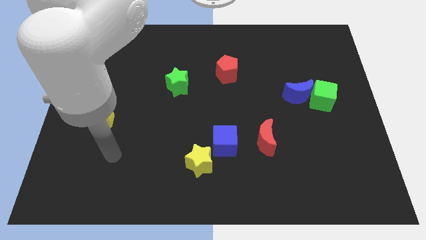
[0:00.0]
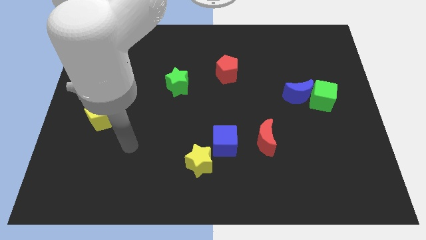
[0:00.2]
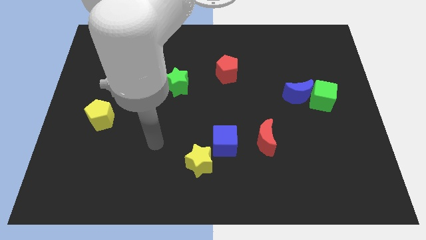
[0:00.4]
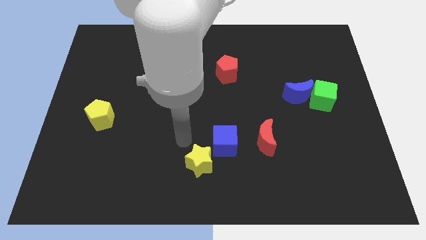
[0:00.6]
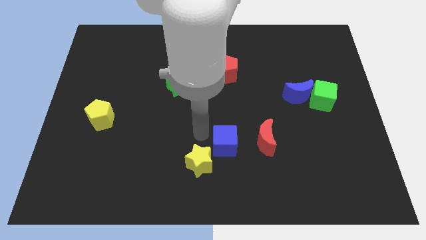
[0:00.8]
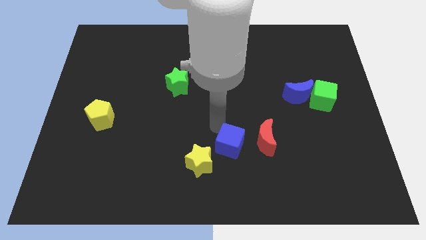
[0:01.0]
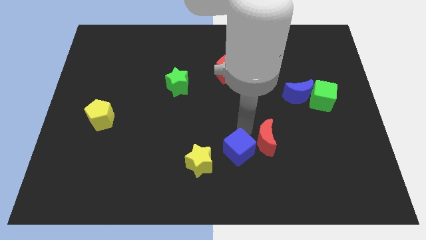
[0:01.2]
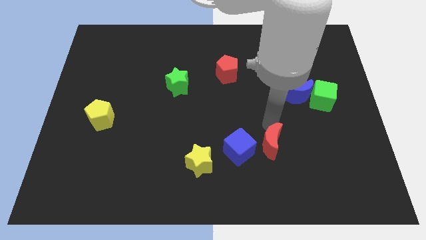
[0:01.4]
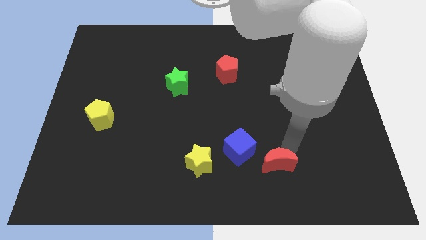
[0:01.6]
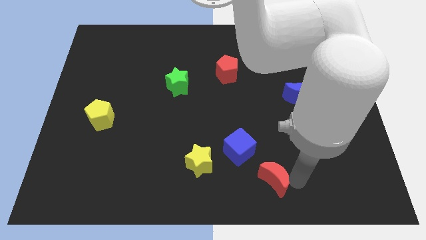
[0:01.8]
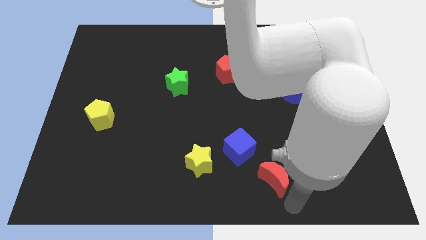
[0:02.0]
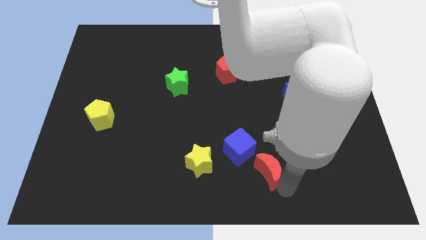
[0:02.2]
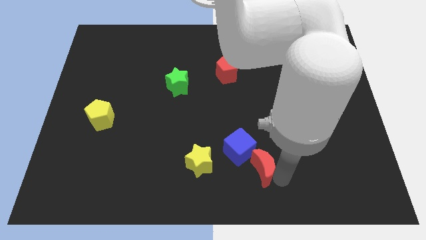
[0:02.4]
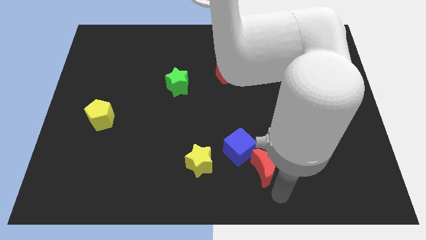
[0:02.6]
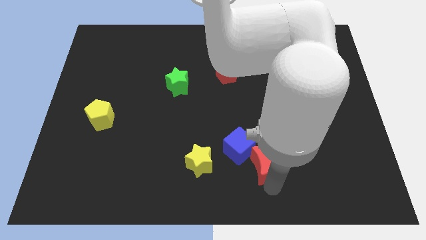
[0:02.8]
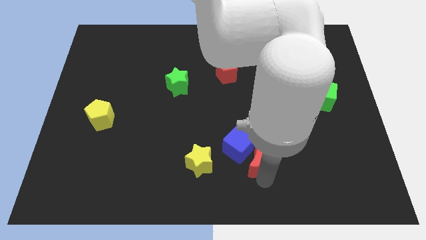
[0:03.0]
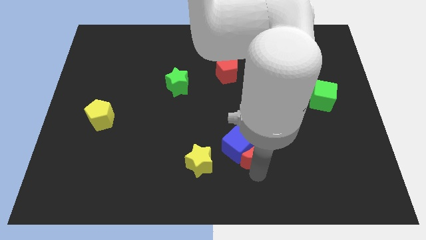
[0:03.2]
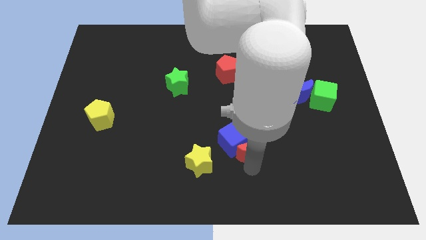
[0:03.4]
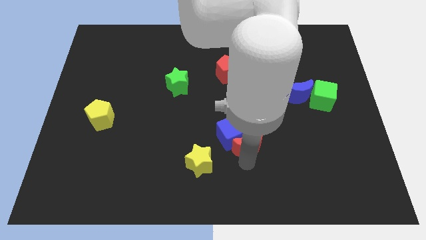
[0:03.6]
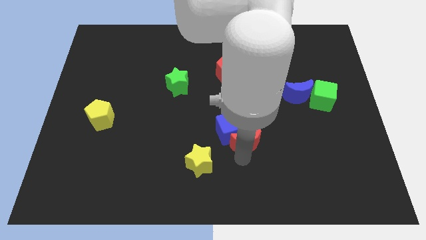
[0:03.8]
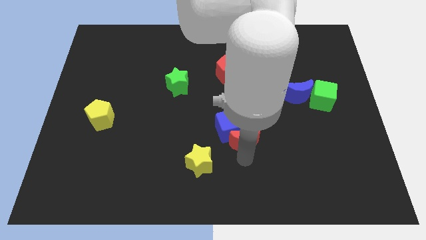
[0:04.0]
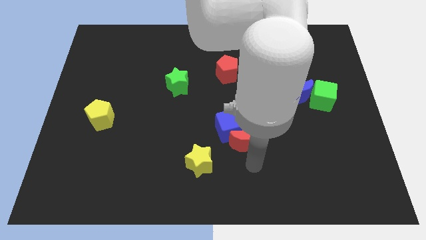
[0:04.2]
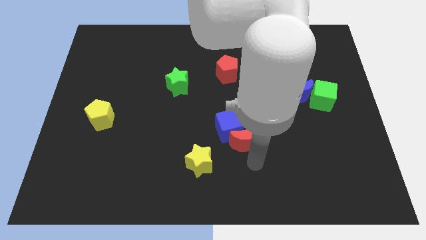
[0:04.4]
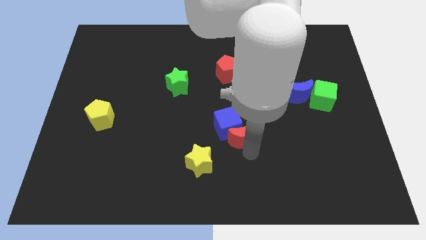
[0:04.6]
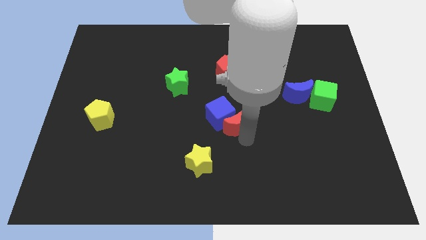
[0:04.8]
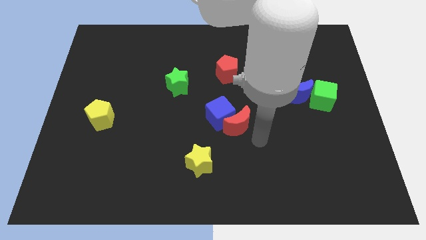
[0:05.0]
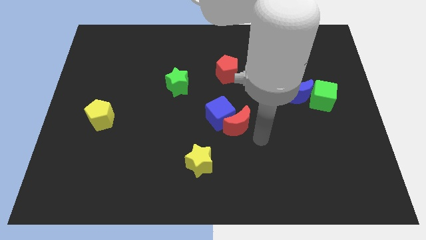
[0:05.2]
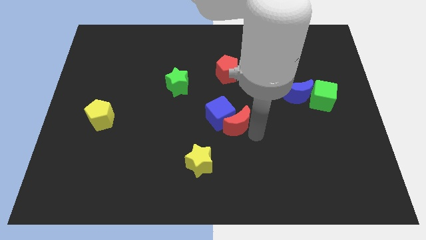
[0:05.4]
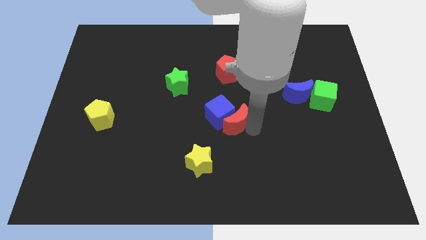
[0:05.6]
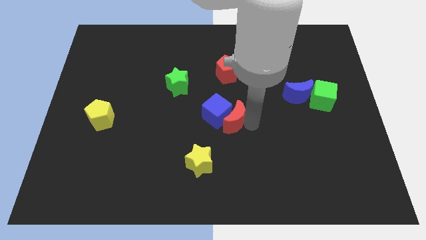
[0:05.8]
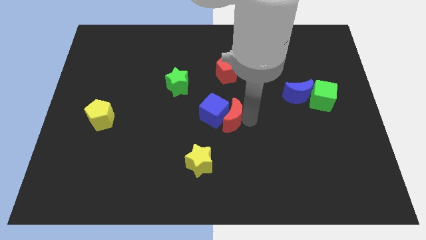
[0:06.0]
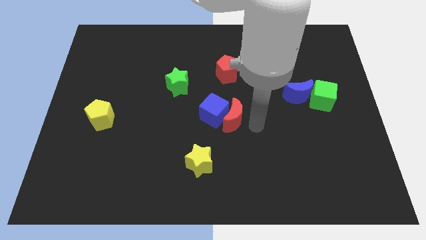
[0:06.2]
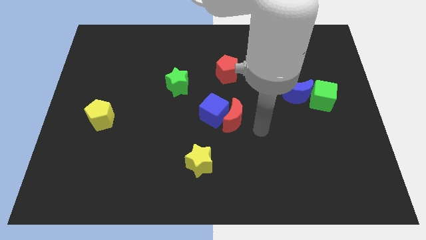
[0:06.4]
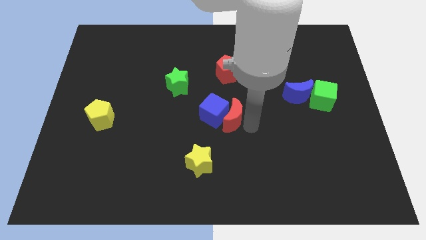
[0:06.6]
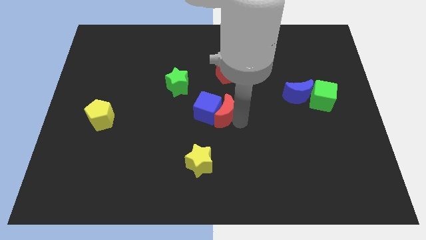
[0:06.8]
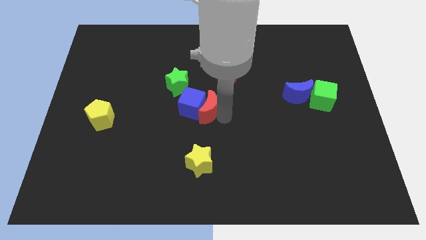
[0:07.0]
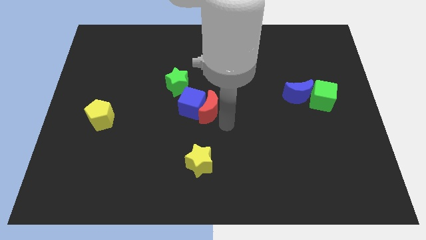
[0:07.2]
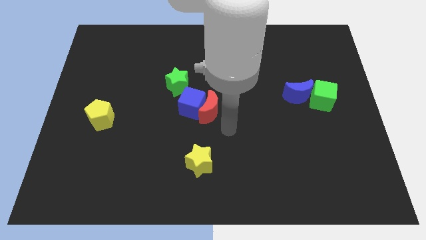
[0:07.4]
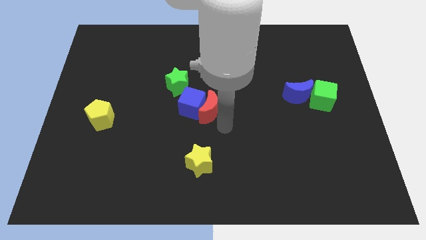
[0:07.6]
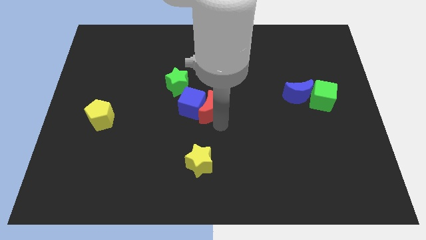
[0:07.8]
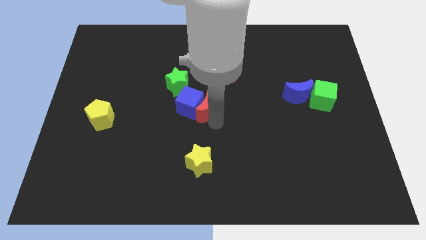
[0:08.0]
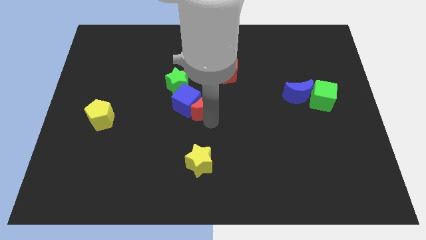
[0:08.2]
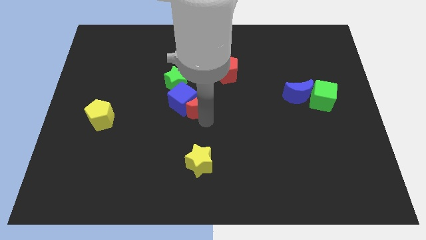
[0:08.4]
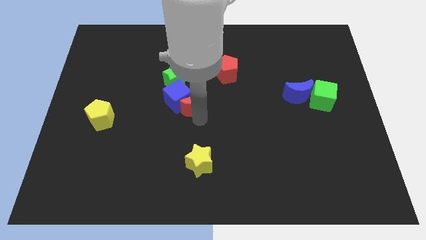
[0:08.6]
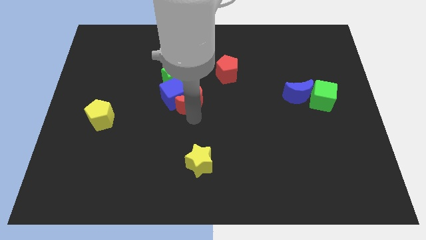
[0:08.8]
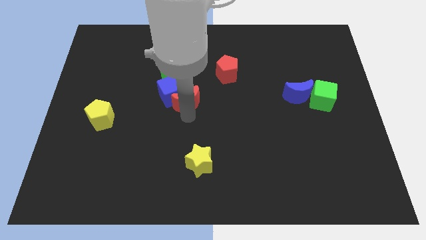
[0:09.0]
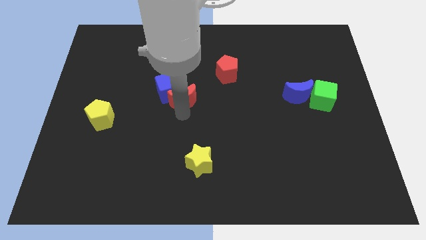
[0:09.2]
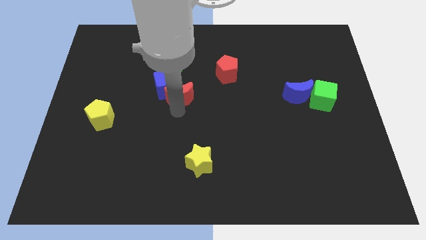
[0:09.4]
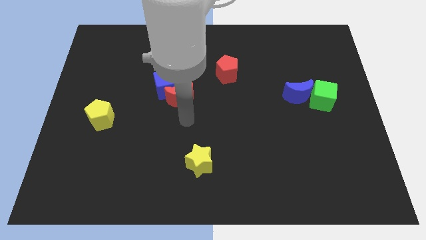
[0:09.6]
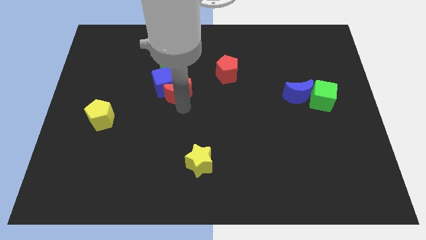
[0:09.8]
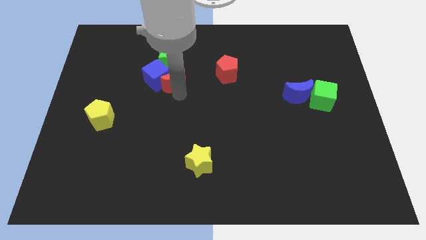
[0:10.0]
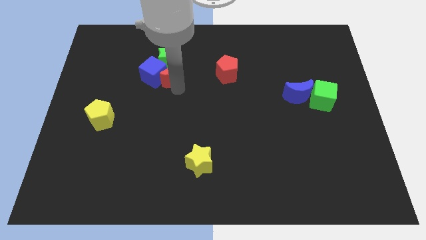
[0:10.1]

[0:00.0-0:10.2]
push the red moon towards the green star

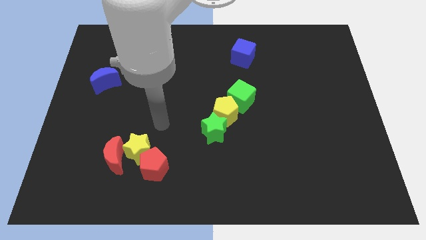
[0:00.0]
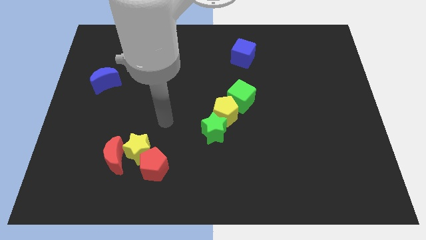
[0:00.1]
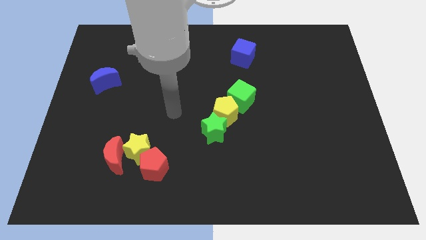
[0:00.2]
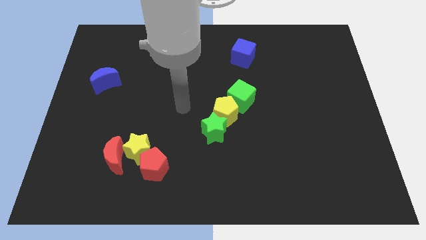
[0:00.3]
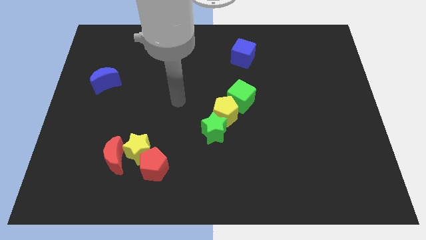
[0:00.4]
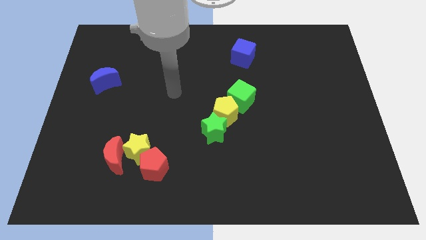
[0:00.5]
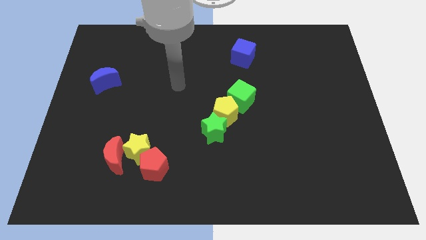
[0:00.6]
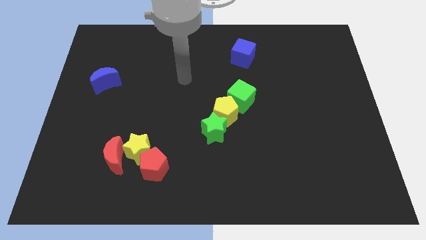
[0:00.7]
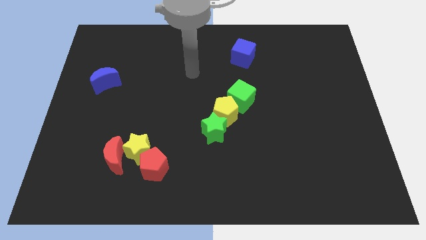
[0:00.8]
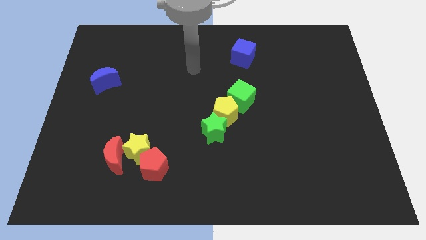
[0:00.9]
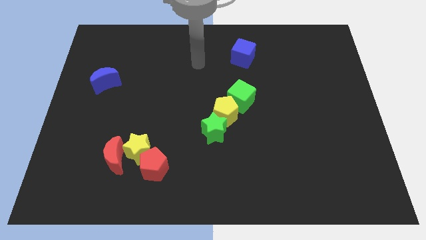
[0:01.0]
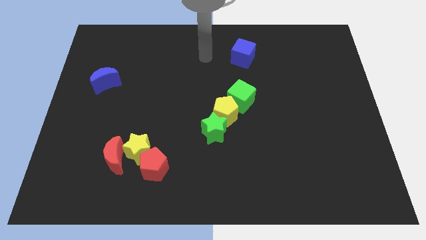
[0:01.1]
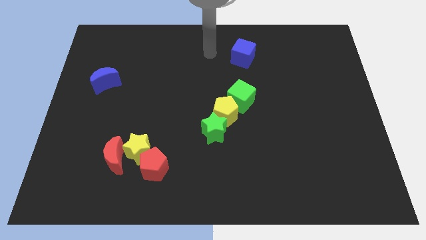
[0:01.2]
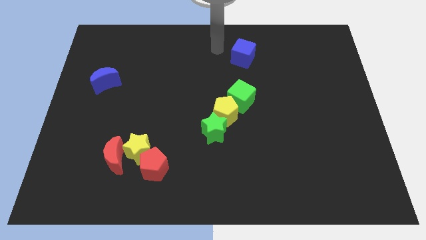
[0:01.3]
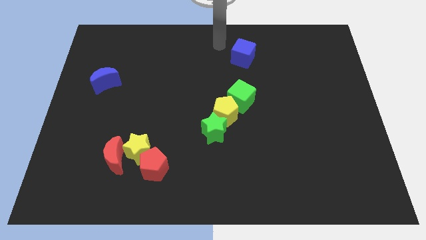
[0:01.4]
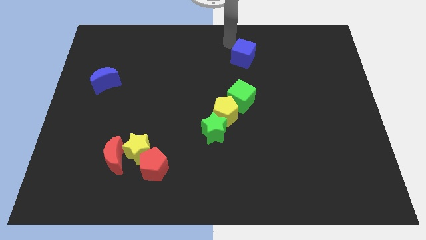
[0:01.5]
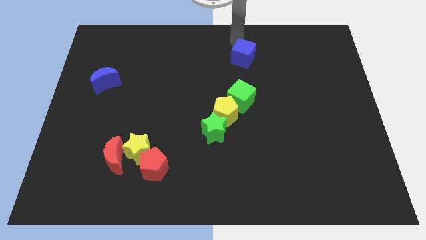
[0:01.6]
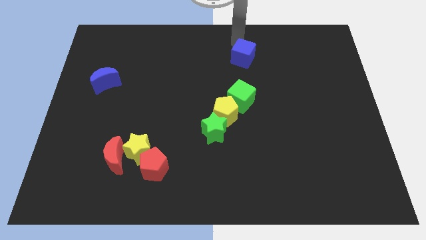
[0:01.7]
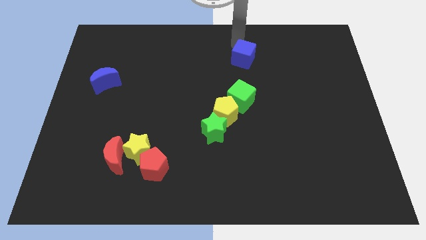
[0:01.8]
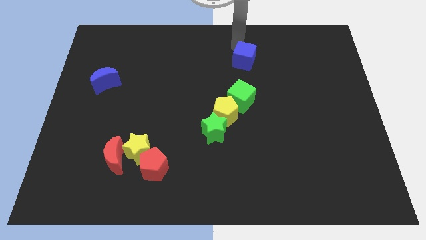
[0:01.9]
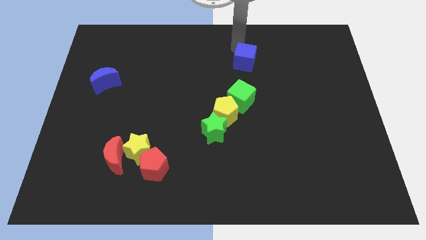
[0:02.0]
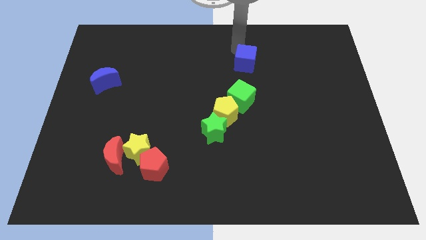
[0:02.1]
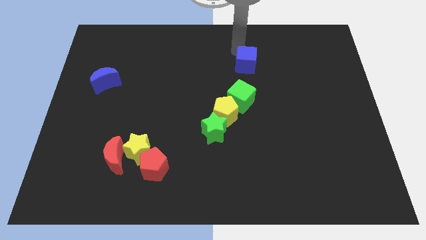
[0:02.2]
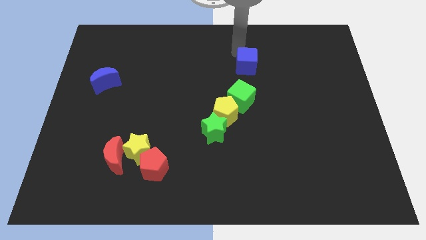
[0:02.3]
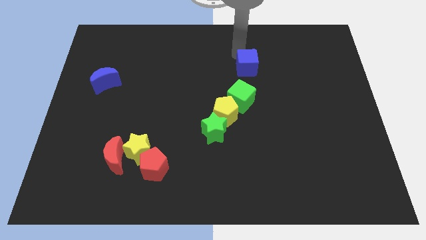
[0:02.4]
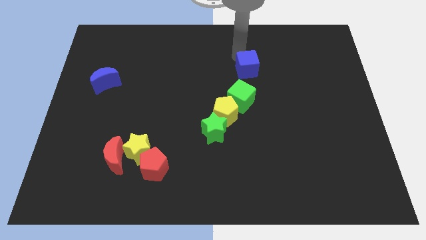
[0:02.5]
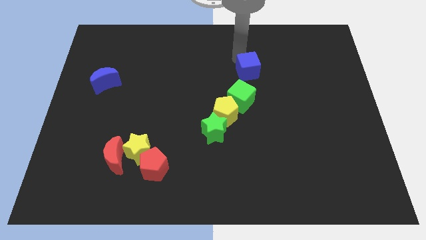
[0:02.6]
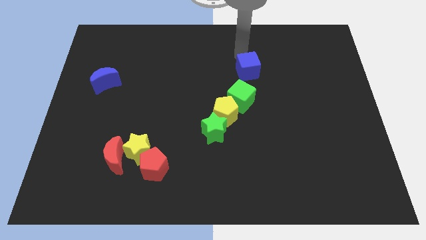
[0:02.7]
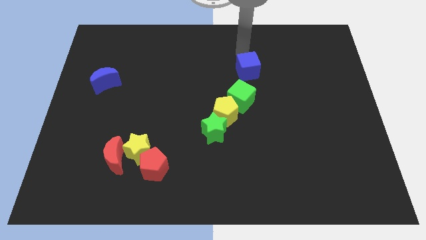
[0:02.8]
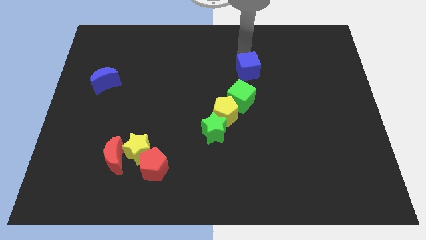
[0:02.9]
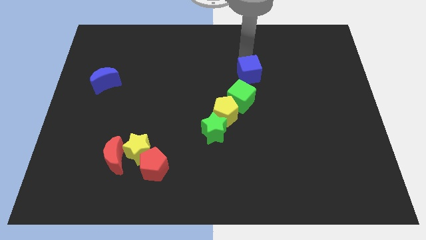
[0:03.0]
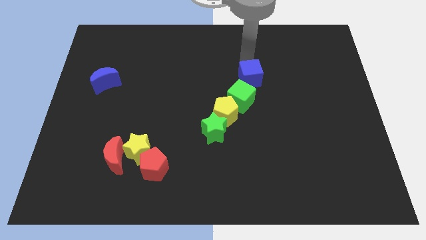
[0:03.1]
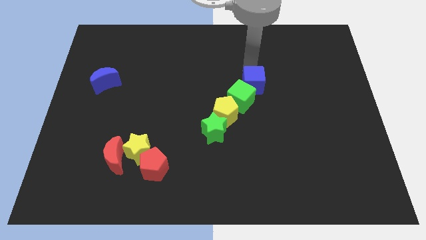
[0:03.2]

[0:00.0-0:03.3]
slide the blue cube to the green cube
